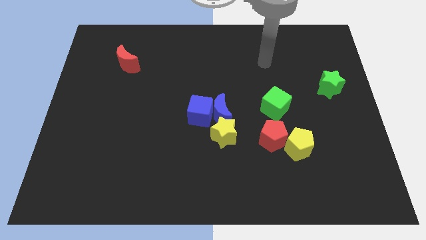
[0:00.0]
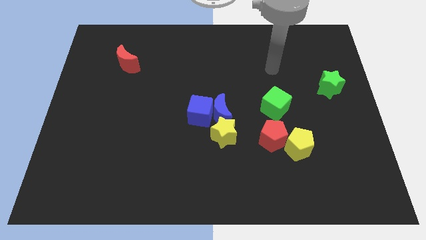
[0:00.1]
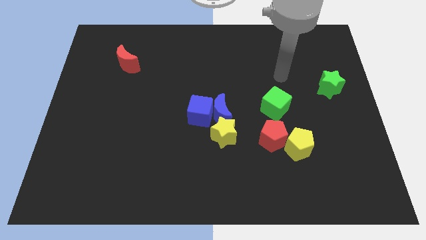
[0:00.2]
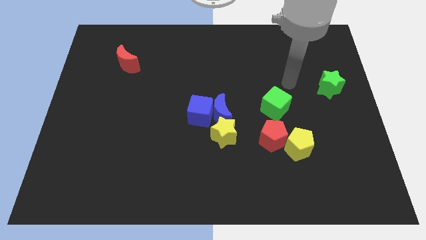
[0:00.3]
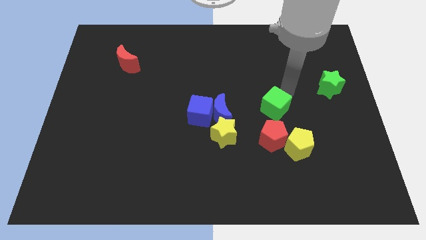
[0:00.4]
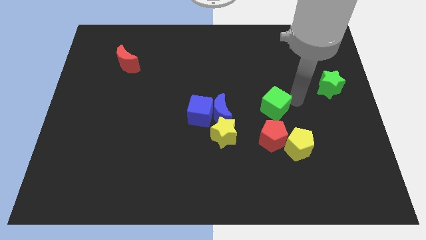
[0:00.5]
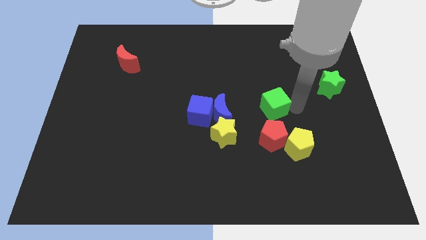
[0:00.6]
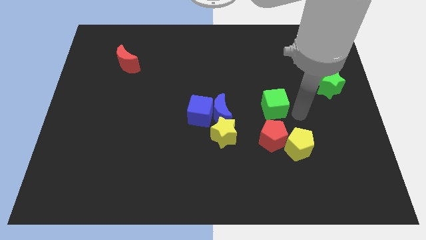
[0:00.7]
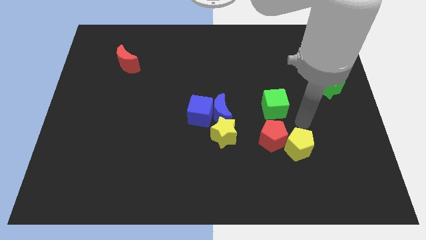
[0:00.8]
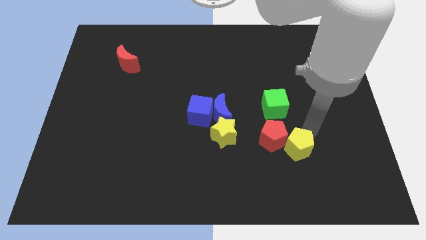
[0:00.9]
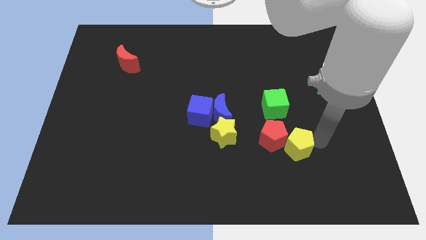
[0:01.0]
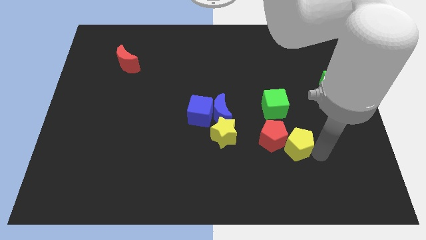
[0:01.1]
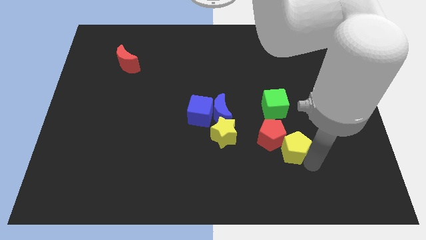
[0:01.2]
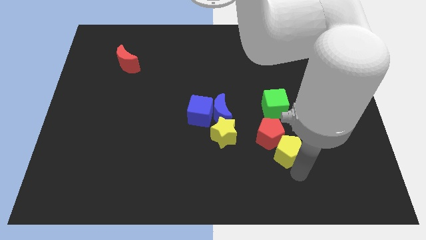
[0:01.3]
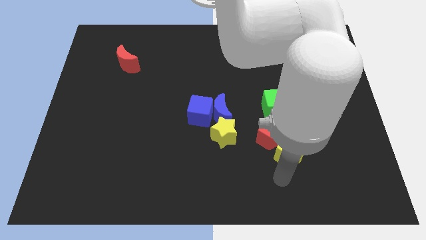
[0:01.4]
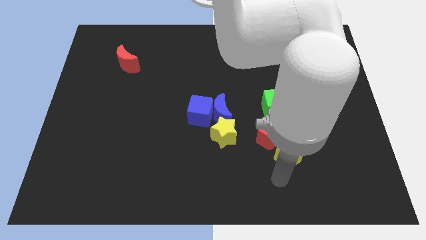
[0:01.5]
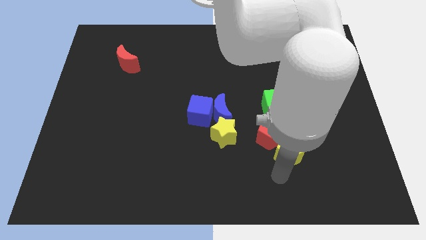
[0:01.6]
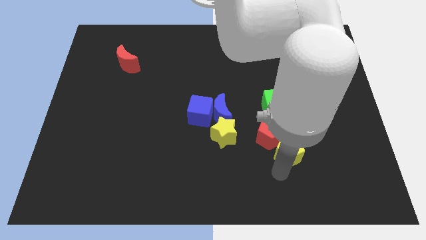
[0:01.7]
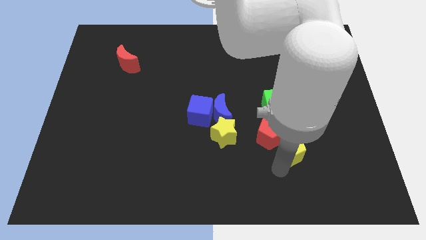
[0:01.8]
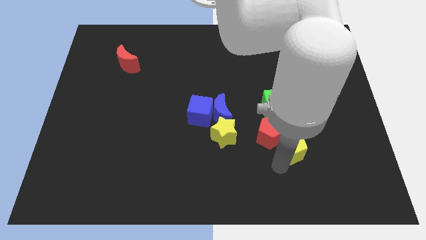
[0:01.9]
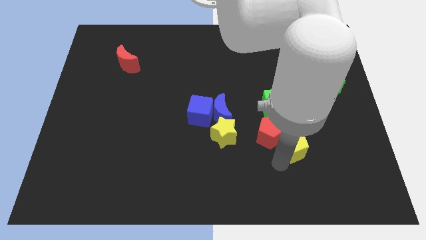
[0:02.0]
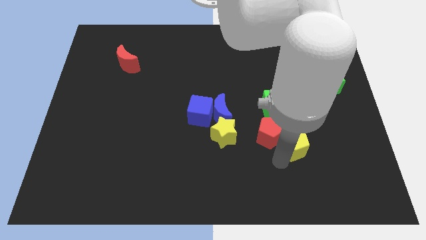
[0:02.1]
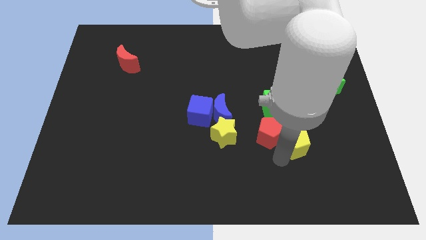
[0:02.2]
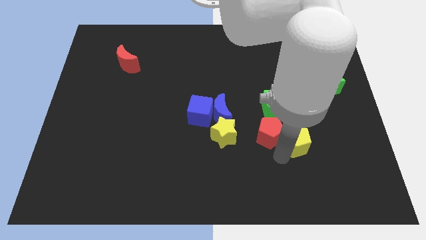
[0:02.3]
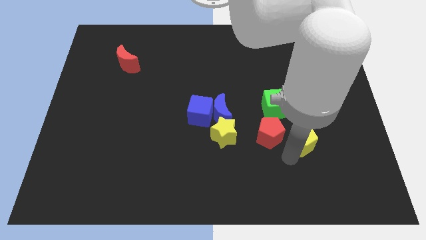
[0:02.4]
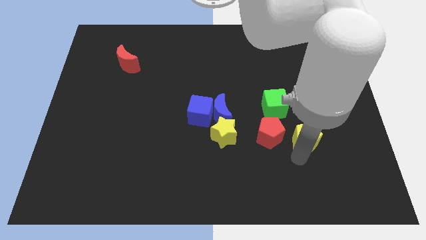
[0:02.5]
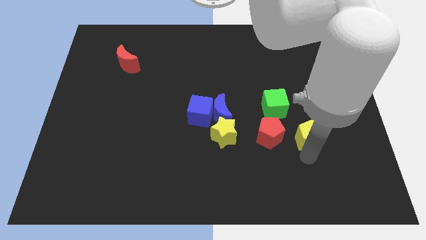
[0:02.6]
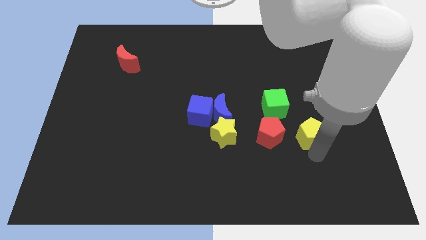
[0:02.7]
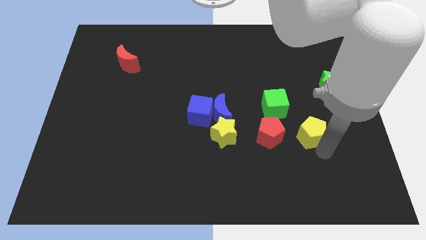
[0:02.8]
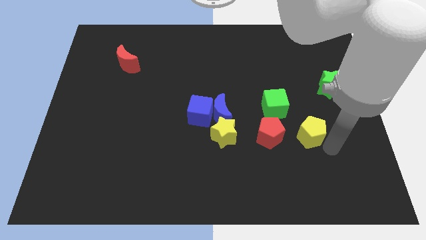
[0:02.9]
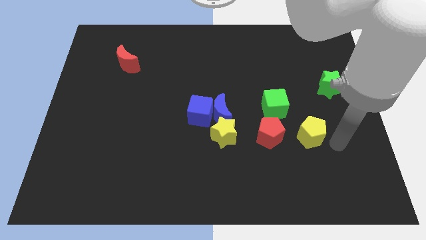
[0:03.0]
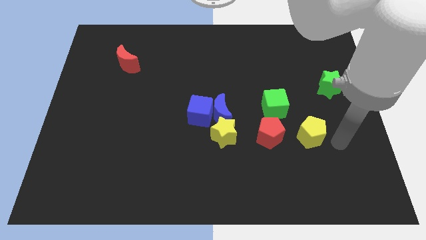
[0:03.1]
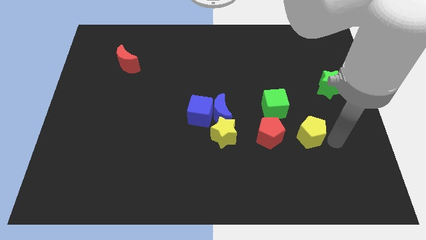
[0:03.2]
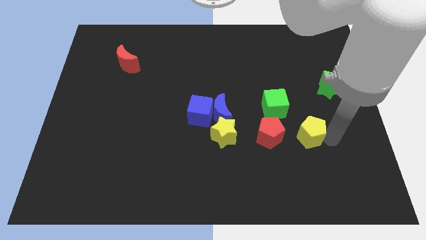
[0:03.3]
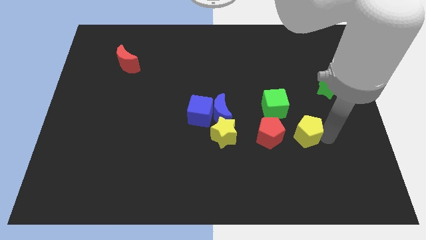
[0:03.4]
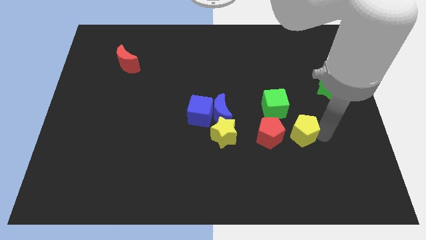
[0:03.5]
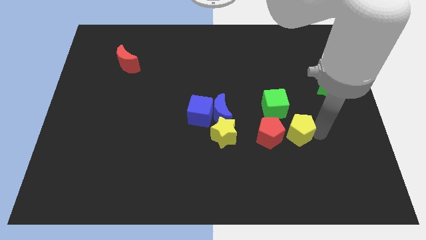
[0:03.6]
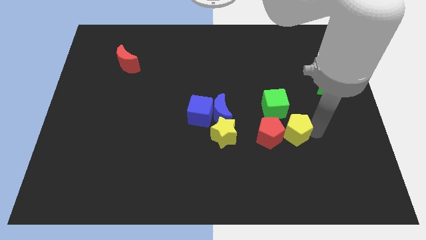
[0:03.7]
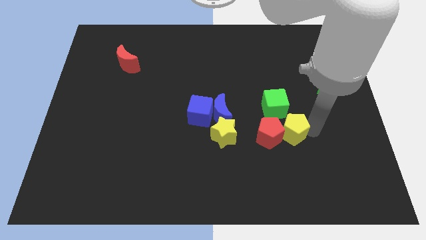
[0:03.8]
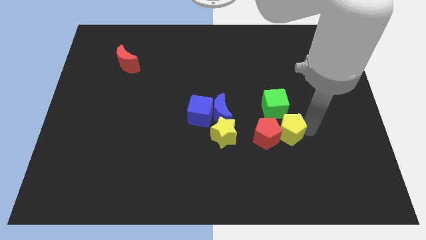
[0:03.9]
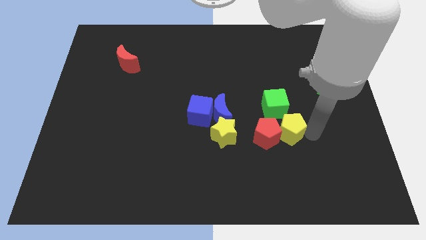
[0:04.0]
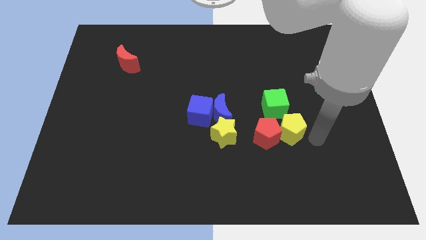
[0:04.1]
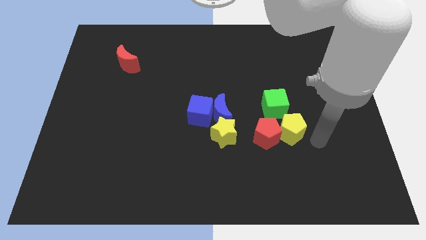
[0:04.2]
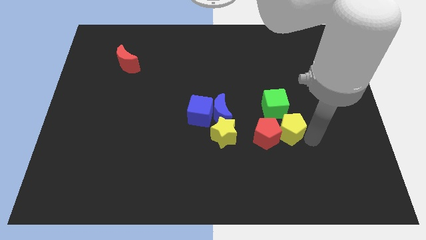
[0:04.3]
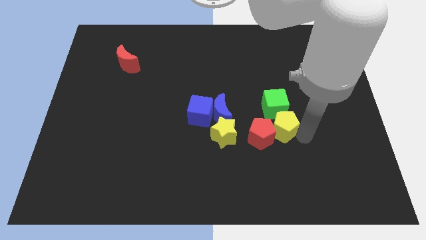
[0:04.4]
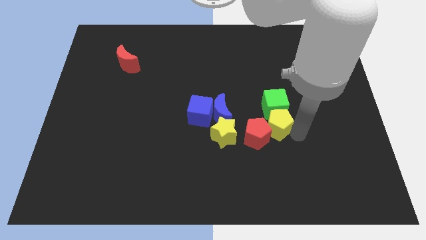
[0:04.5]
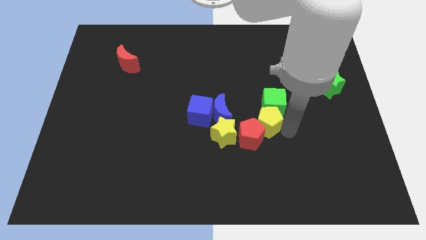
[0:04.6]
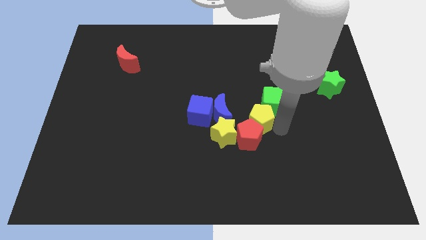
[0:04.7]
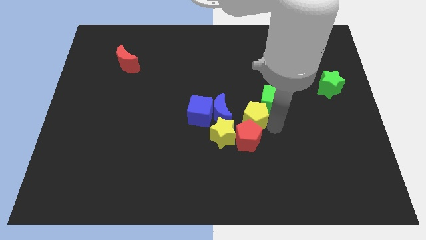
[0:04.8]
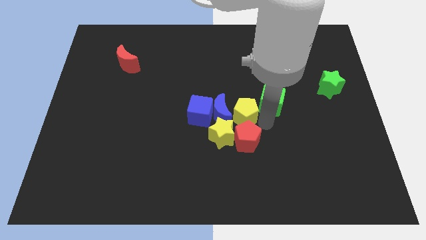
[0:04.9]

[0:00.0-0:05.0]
put the yellow pentagon to the blue moon

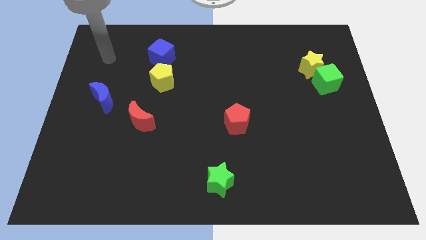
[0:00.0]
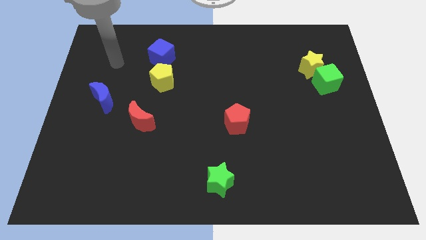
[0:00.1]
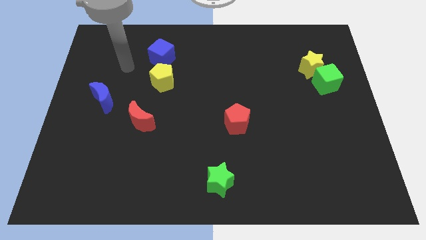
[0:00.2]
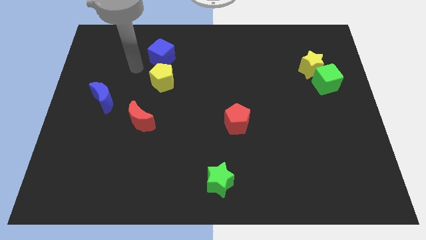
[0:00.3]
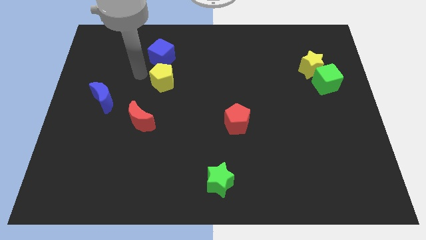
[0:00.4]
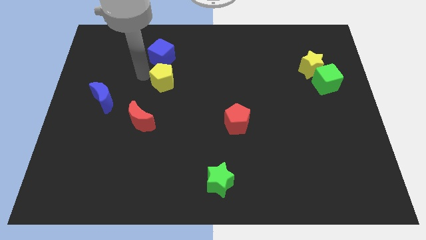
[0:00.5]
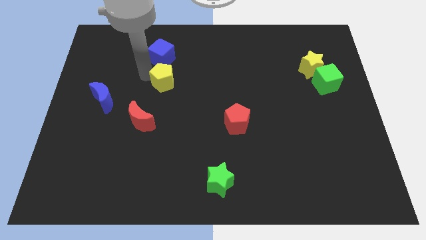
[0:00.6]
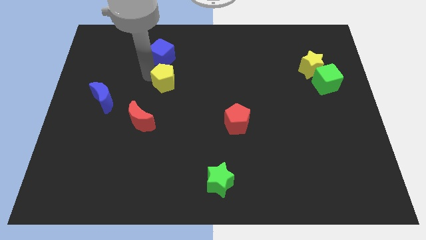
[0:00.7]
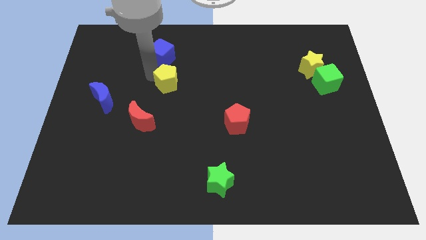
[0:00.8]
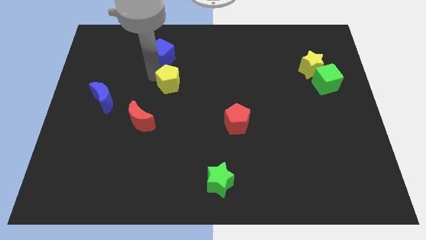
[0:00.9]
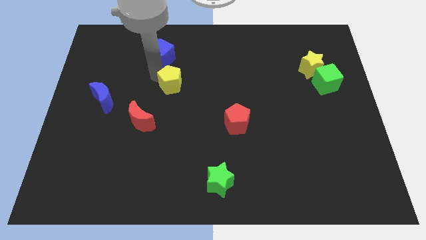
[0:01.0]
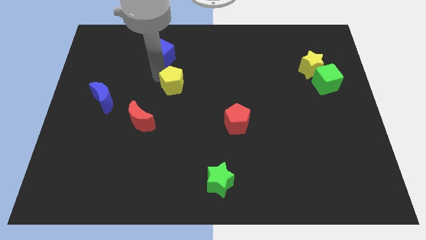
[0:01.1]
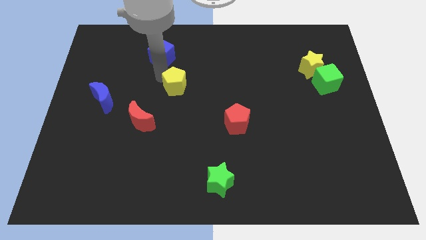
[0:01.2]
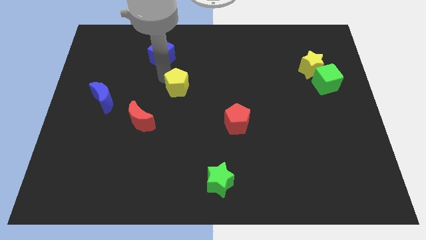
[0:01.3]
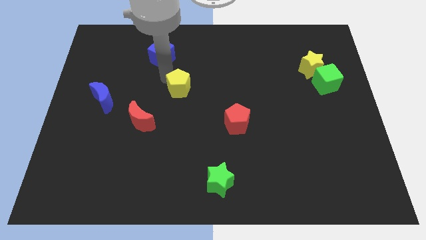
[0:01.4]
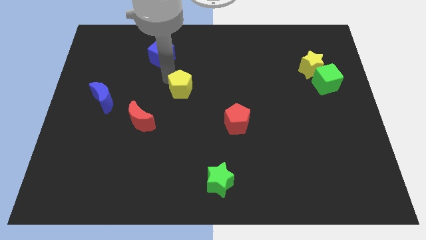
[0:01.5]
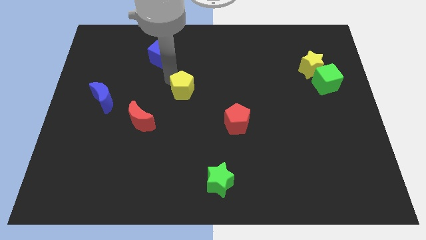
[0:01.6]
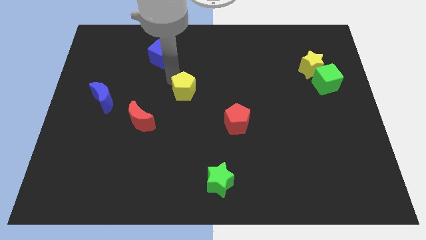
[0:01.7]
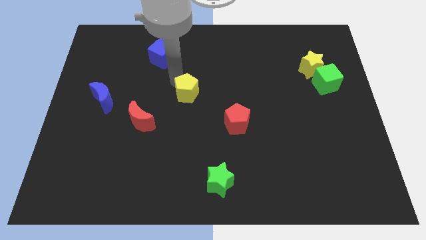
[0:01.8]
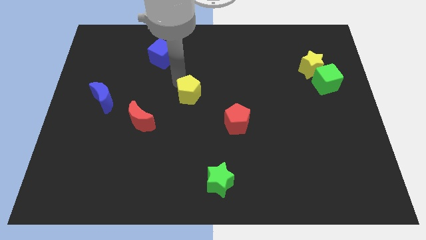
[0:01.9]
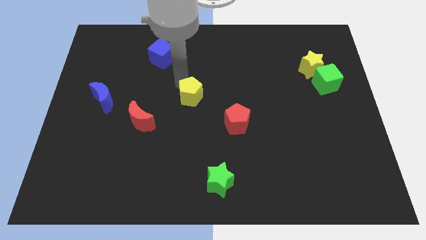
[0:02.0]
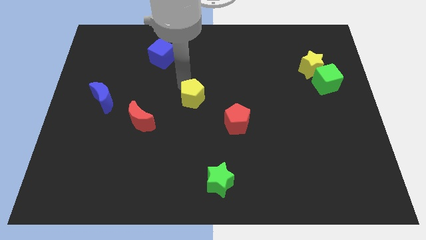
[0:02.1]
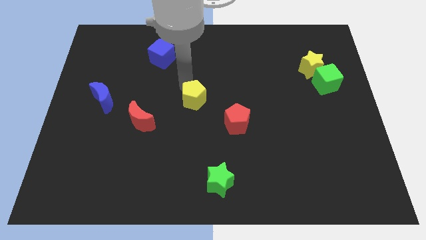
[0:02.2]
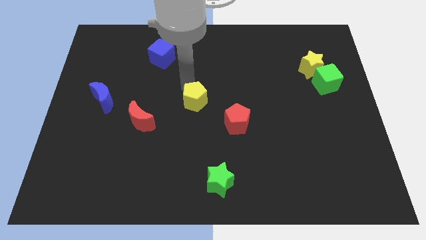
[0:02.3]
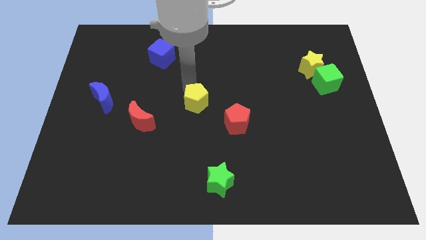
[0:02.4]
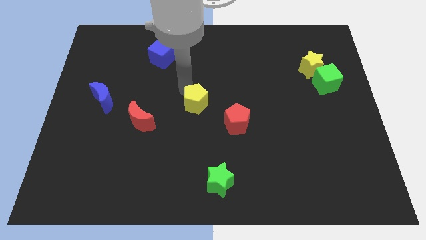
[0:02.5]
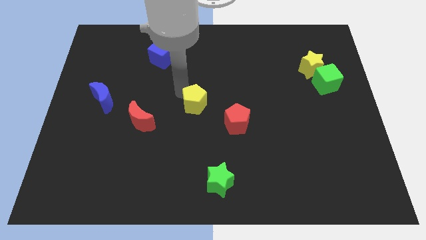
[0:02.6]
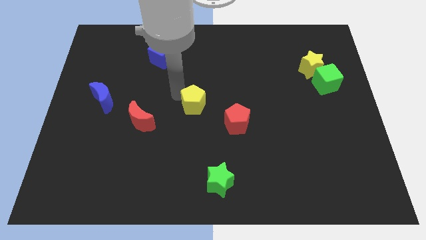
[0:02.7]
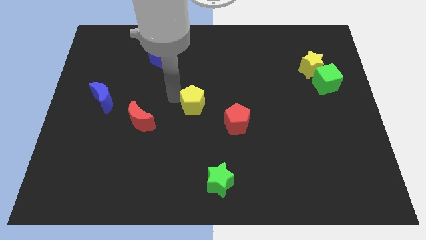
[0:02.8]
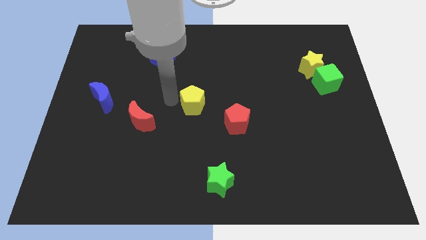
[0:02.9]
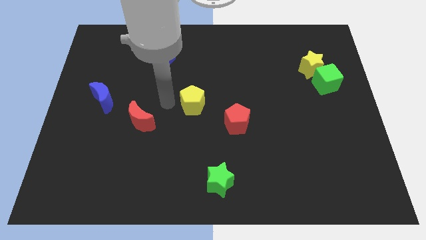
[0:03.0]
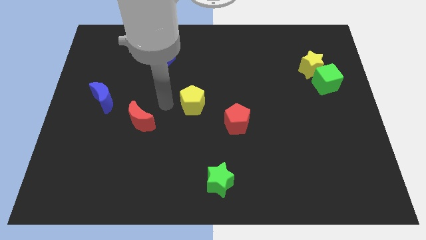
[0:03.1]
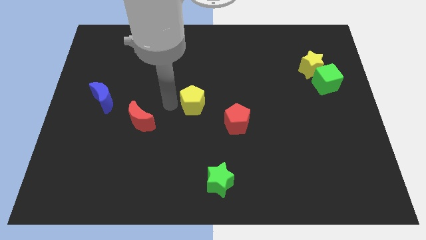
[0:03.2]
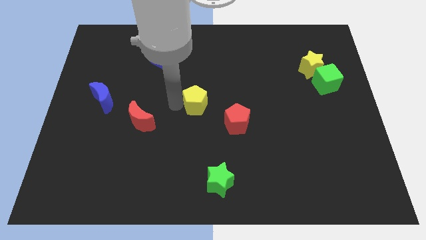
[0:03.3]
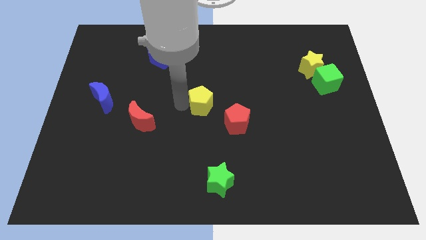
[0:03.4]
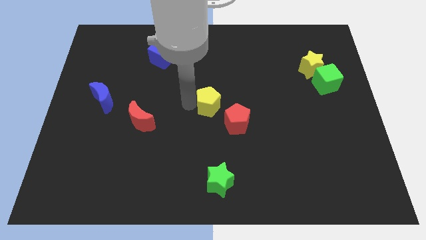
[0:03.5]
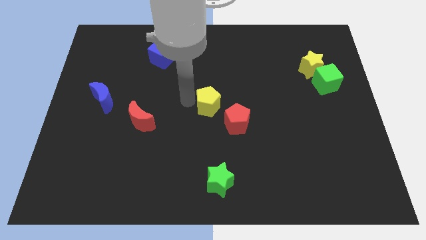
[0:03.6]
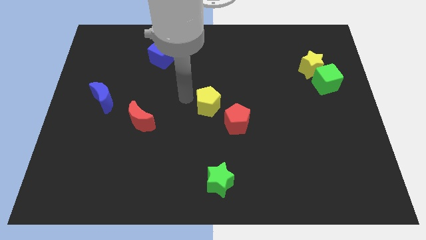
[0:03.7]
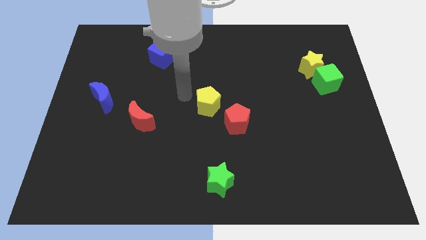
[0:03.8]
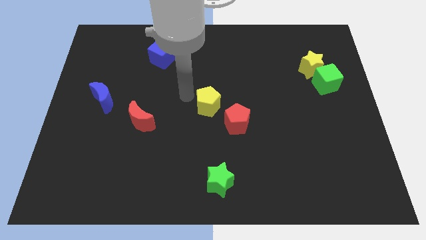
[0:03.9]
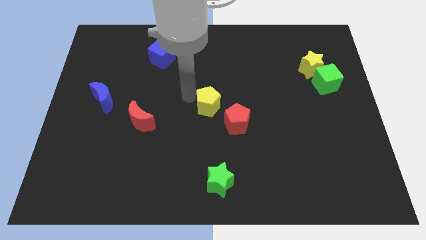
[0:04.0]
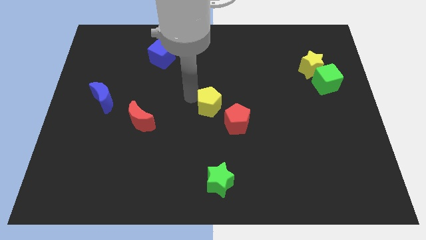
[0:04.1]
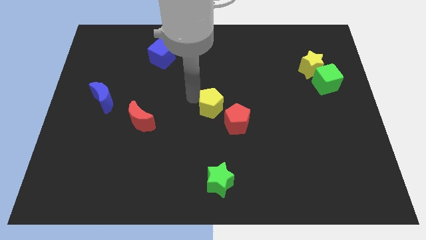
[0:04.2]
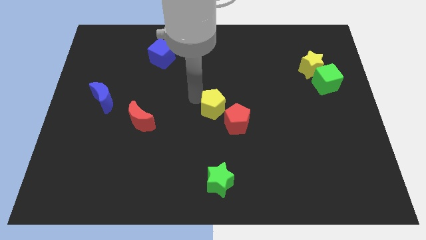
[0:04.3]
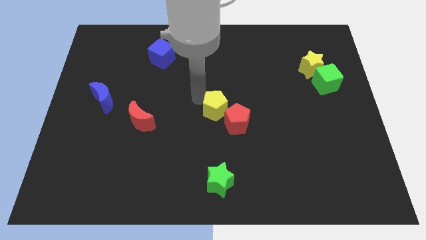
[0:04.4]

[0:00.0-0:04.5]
slide the yellow pentagon towards the red pentagon
